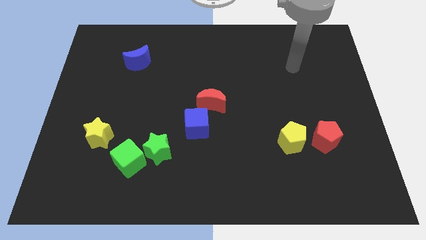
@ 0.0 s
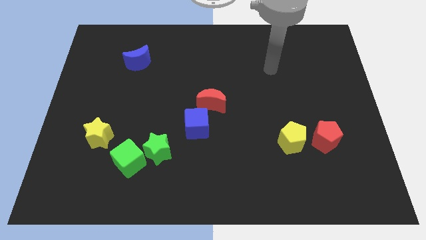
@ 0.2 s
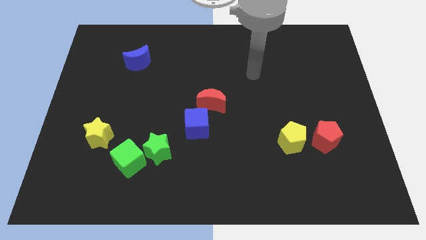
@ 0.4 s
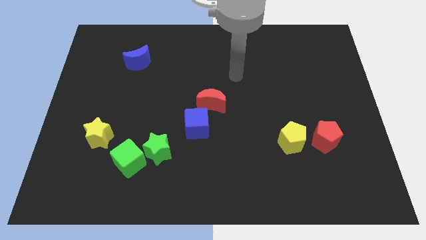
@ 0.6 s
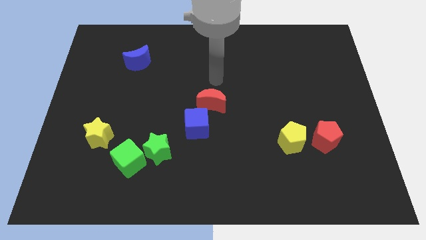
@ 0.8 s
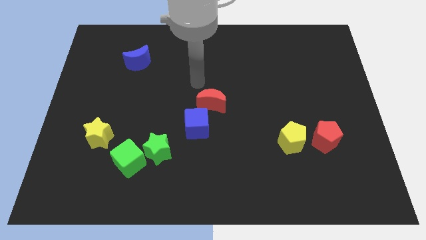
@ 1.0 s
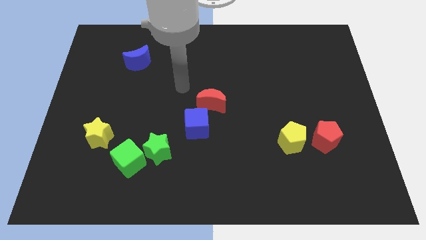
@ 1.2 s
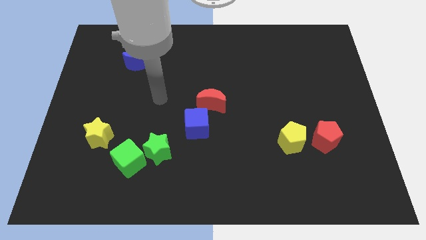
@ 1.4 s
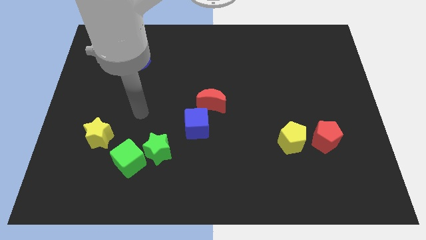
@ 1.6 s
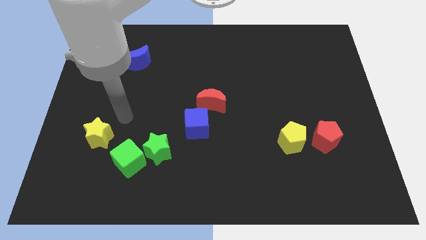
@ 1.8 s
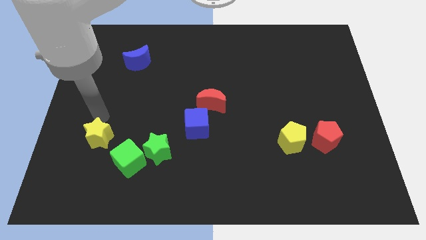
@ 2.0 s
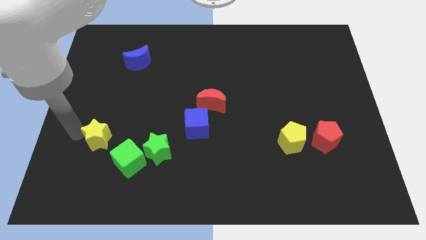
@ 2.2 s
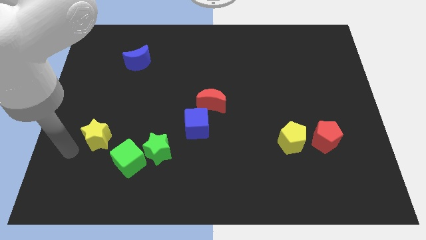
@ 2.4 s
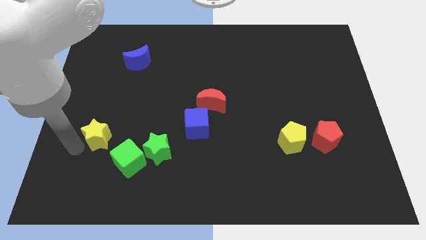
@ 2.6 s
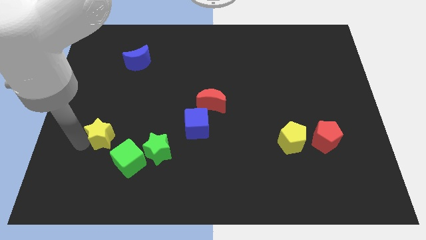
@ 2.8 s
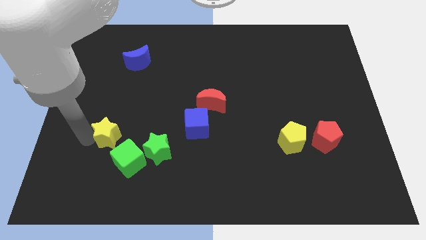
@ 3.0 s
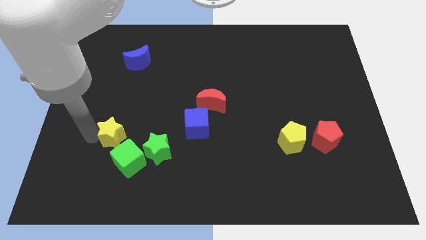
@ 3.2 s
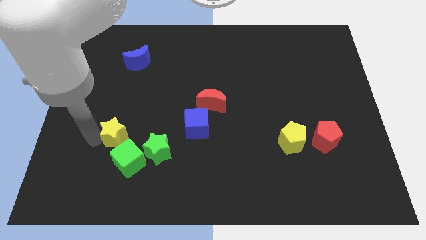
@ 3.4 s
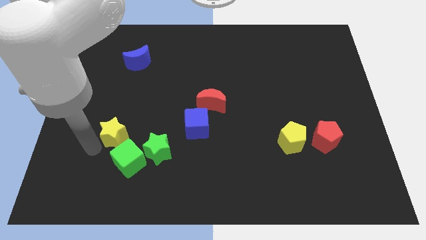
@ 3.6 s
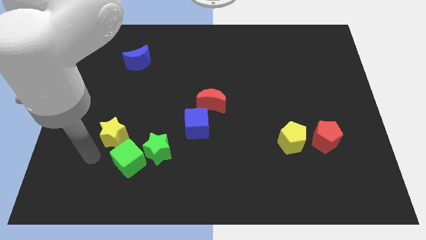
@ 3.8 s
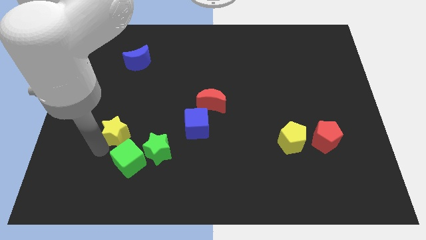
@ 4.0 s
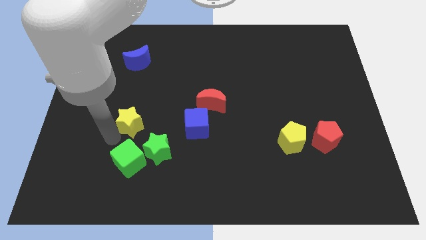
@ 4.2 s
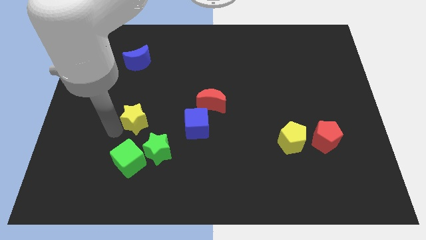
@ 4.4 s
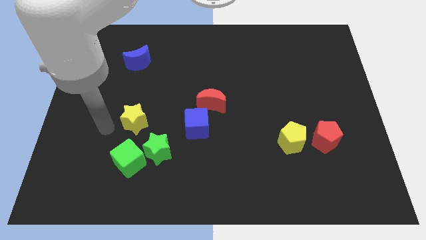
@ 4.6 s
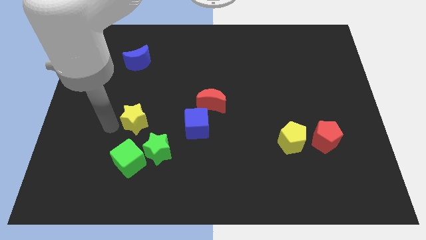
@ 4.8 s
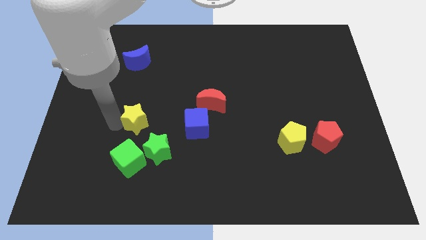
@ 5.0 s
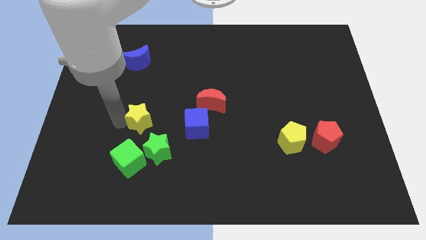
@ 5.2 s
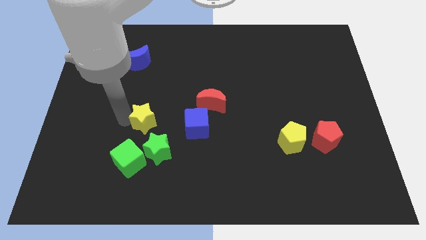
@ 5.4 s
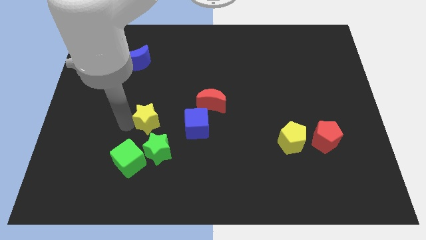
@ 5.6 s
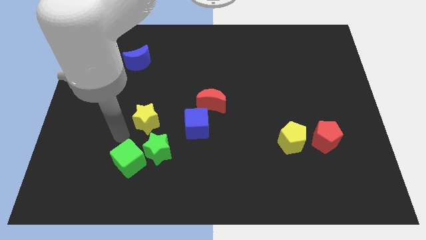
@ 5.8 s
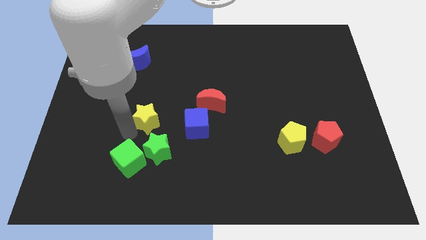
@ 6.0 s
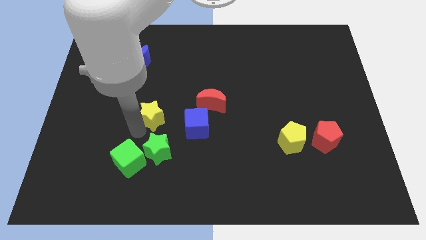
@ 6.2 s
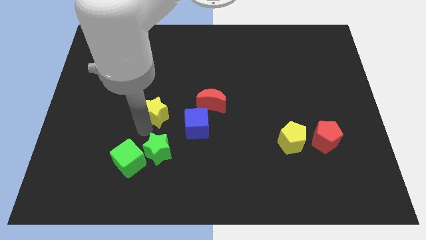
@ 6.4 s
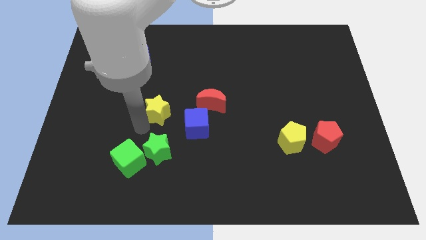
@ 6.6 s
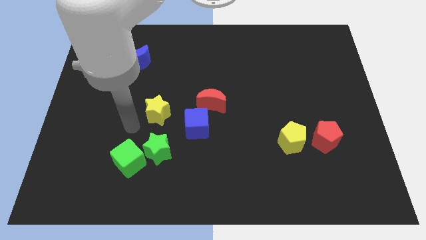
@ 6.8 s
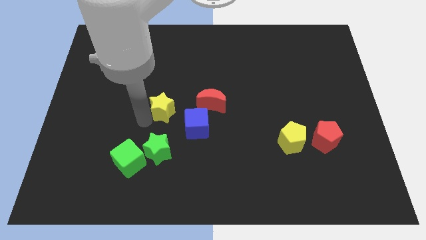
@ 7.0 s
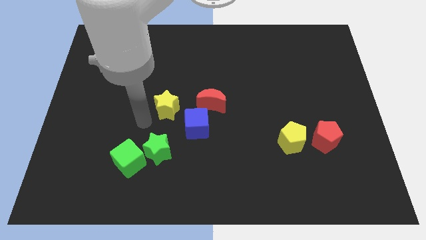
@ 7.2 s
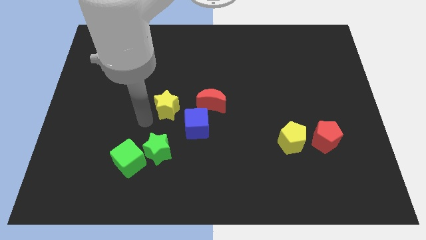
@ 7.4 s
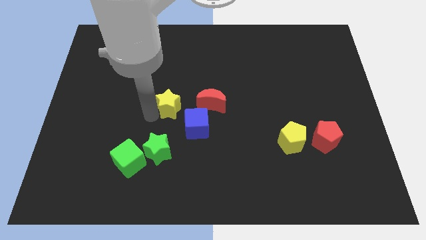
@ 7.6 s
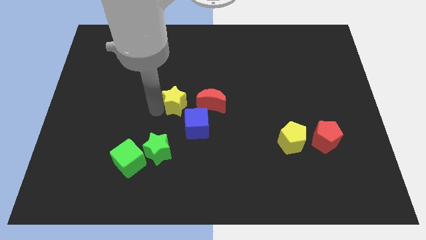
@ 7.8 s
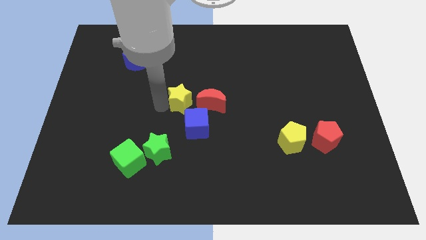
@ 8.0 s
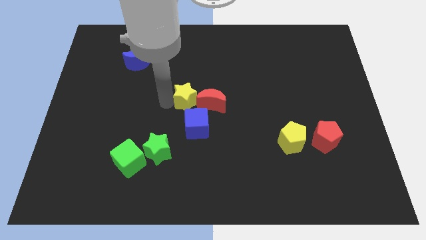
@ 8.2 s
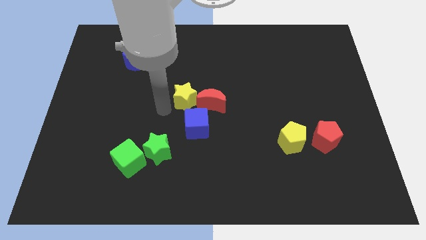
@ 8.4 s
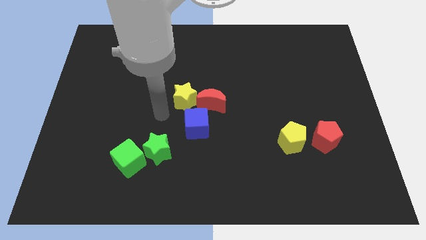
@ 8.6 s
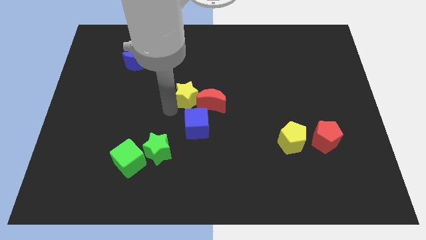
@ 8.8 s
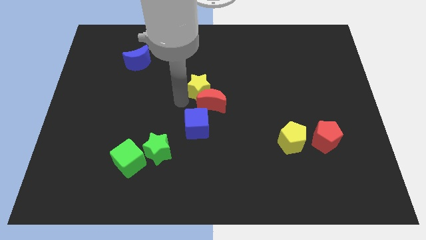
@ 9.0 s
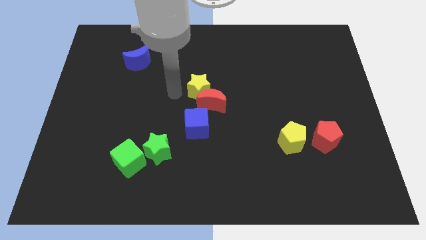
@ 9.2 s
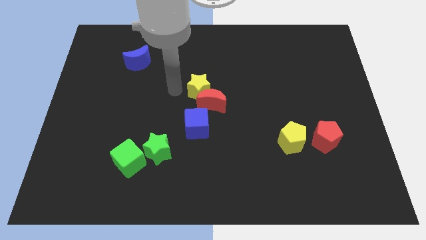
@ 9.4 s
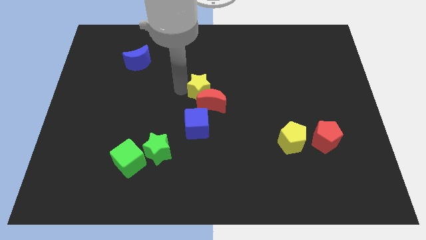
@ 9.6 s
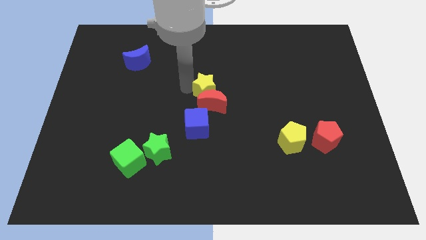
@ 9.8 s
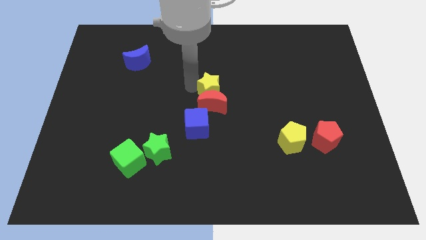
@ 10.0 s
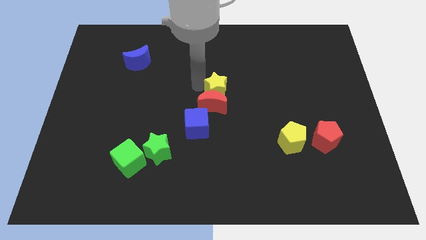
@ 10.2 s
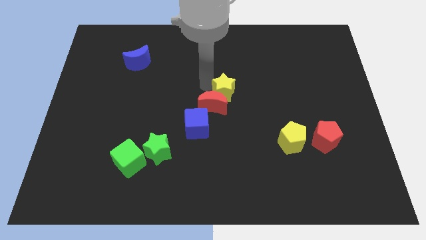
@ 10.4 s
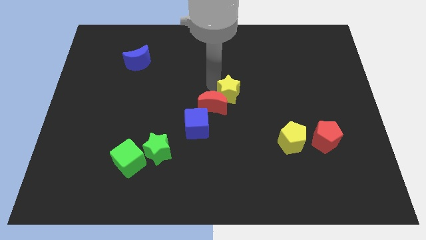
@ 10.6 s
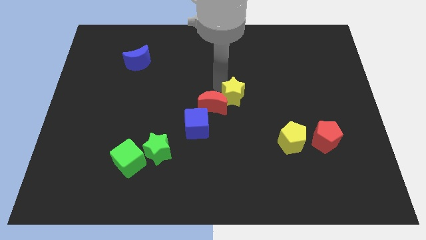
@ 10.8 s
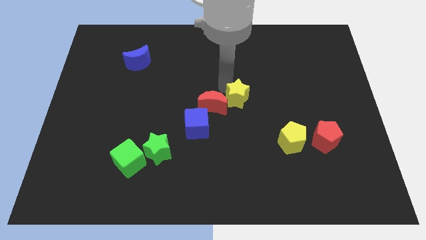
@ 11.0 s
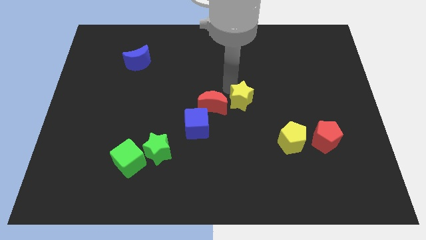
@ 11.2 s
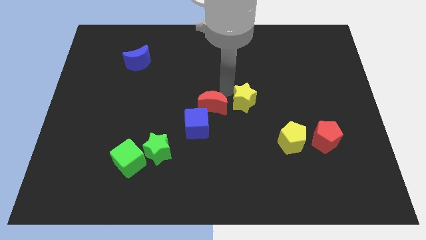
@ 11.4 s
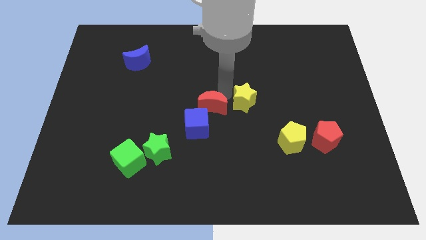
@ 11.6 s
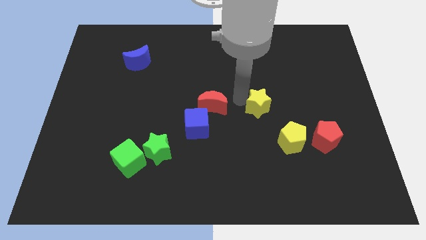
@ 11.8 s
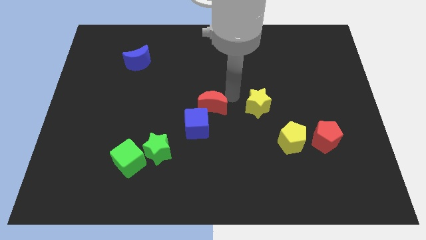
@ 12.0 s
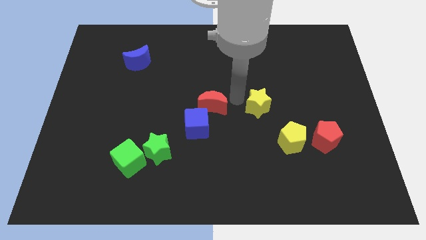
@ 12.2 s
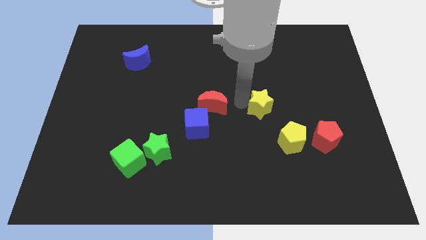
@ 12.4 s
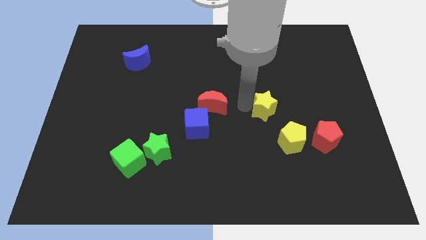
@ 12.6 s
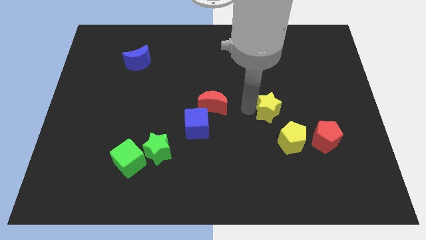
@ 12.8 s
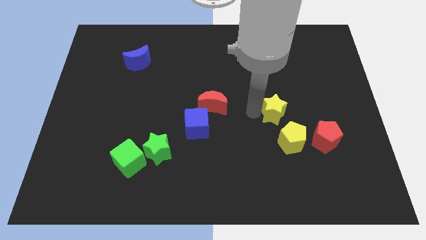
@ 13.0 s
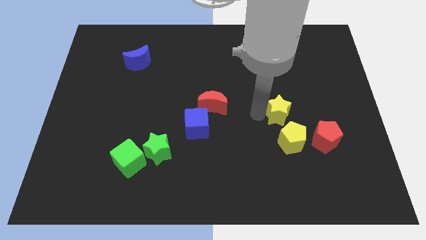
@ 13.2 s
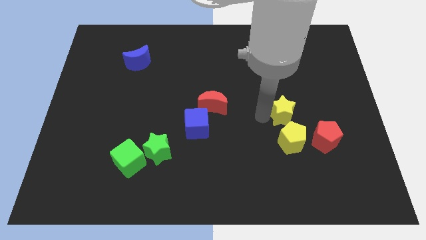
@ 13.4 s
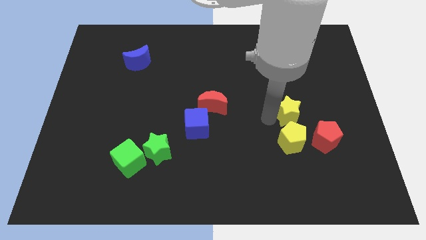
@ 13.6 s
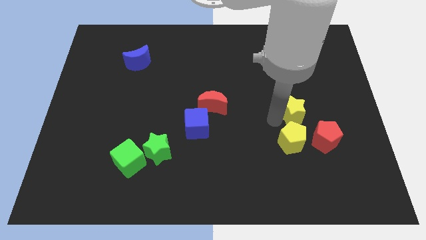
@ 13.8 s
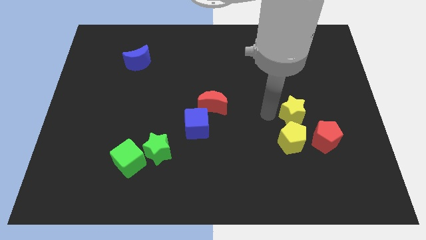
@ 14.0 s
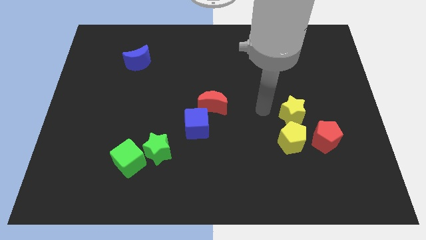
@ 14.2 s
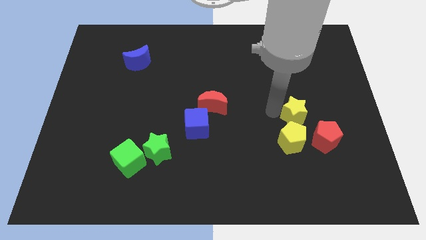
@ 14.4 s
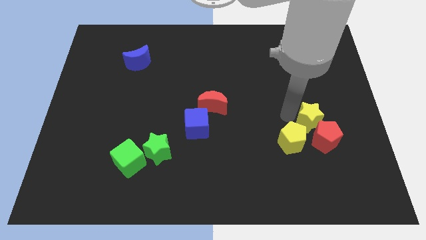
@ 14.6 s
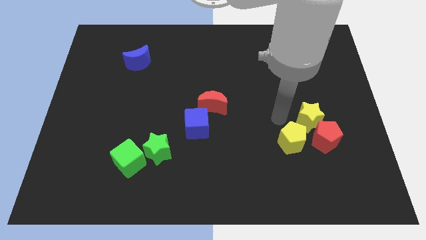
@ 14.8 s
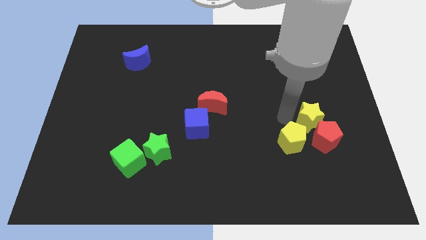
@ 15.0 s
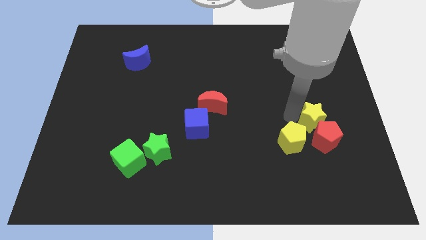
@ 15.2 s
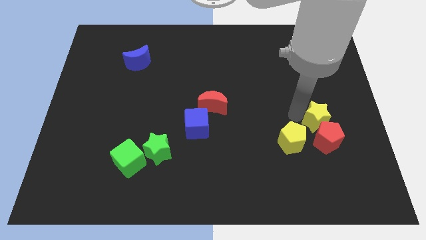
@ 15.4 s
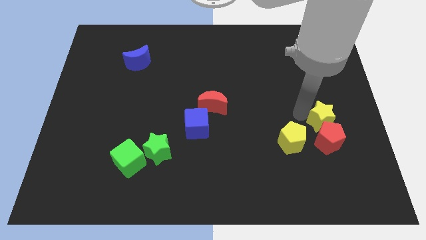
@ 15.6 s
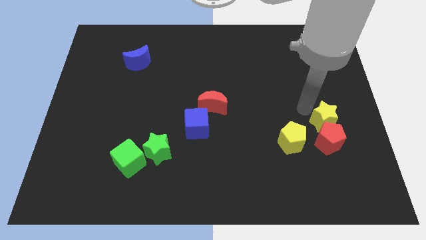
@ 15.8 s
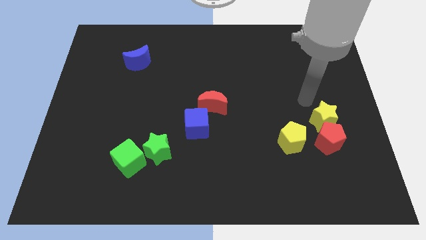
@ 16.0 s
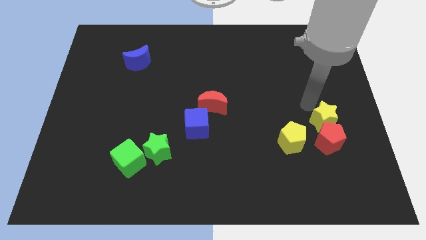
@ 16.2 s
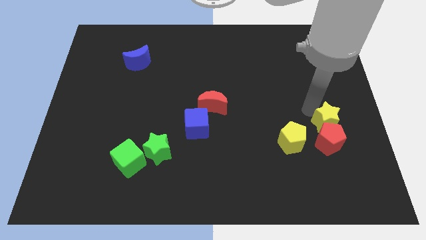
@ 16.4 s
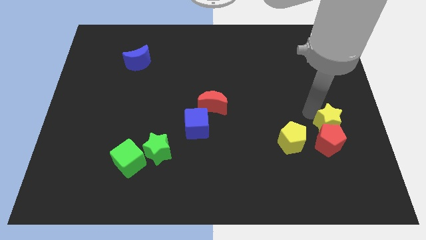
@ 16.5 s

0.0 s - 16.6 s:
move the yellow star right of the yellow pentagon
